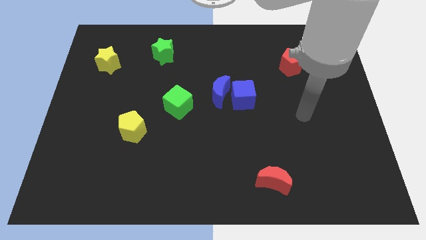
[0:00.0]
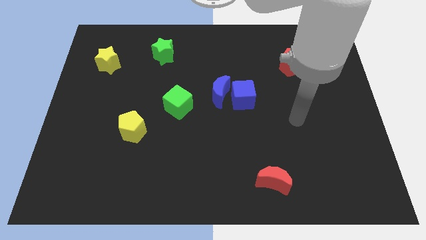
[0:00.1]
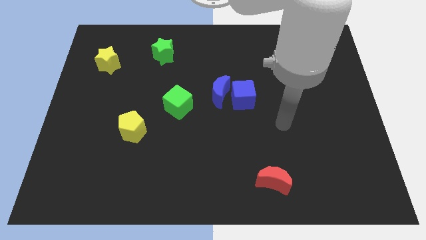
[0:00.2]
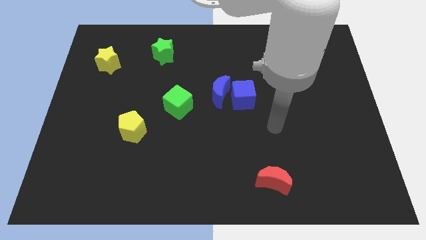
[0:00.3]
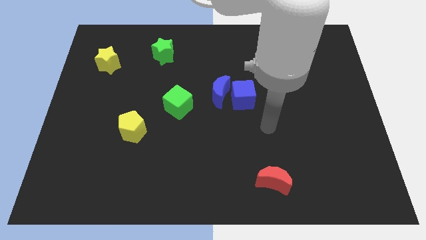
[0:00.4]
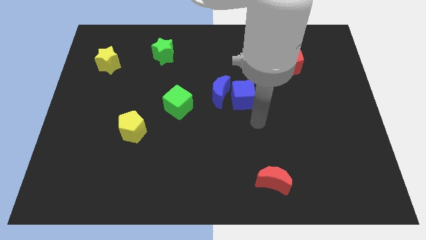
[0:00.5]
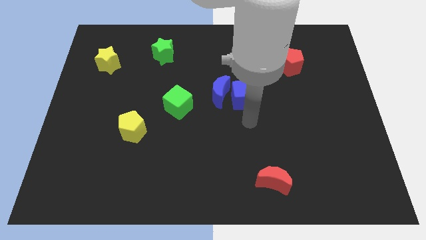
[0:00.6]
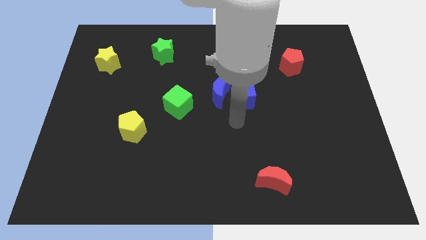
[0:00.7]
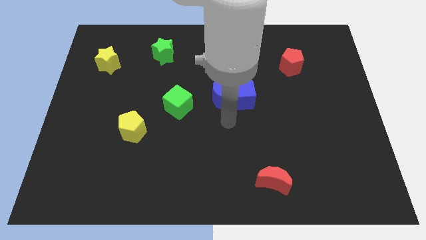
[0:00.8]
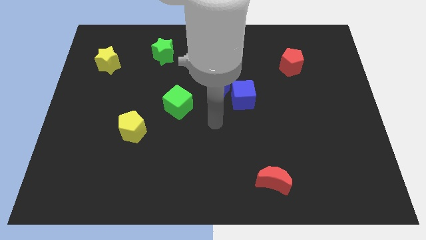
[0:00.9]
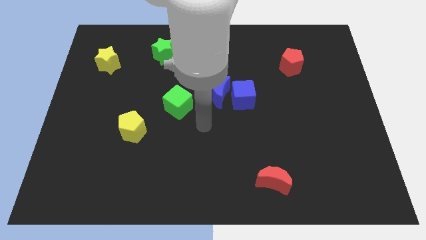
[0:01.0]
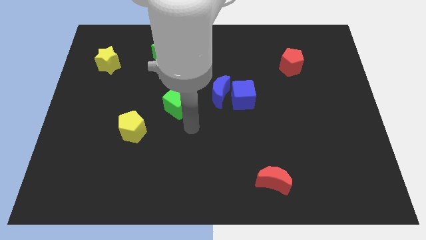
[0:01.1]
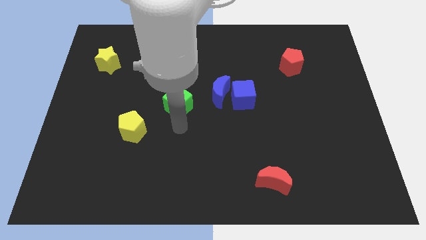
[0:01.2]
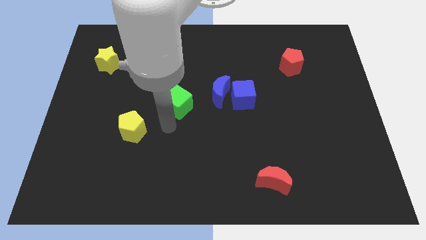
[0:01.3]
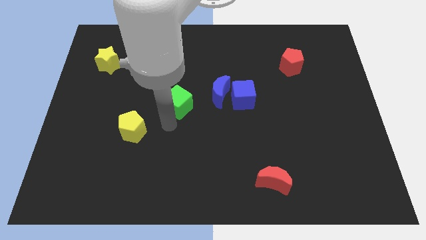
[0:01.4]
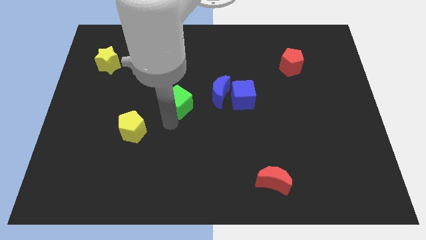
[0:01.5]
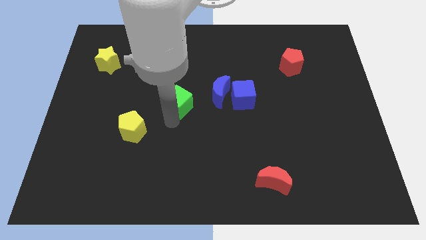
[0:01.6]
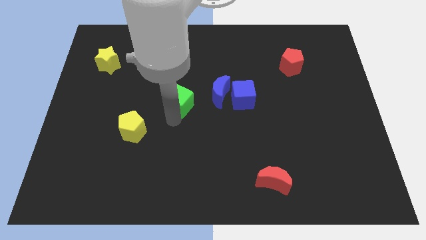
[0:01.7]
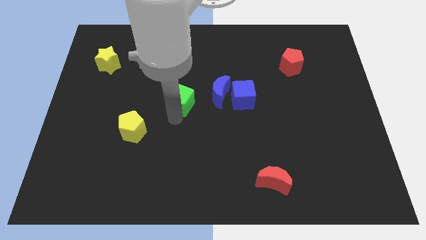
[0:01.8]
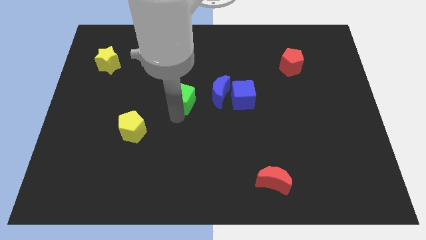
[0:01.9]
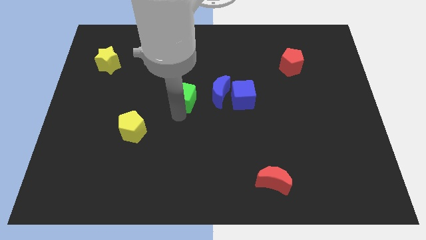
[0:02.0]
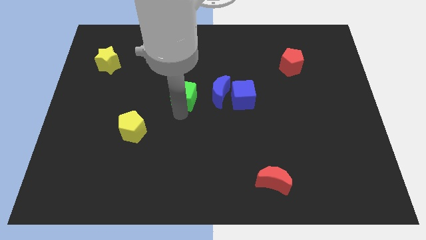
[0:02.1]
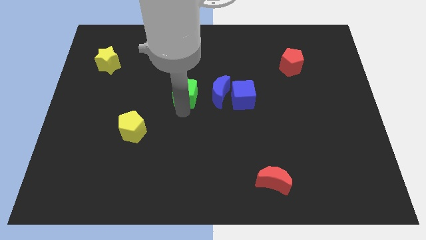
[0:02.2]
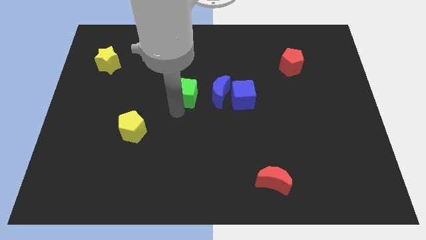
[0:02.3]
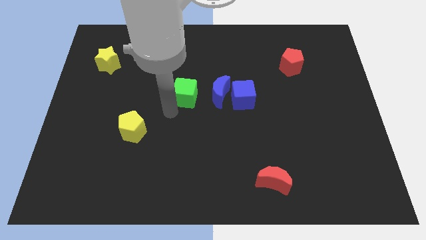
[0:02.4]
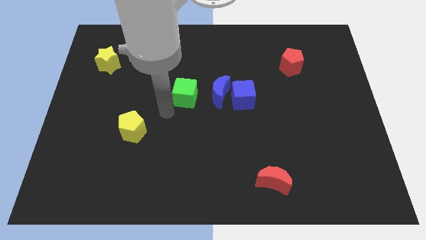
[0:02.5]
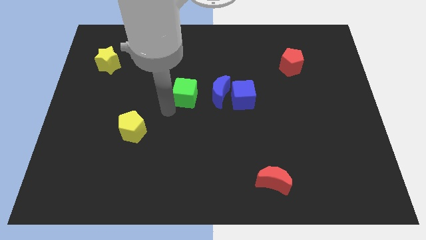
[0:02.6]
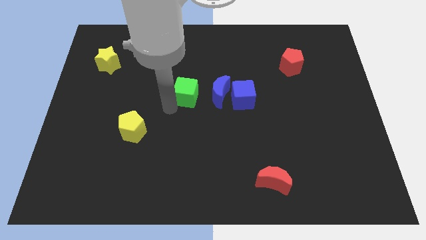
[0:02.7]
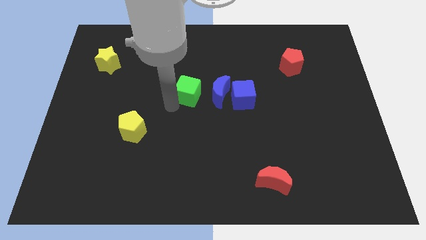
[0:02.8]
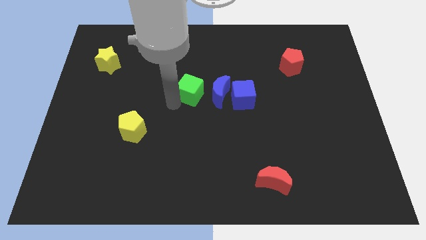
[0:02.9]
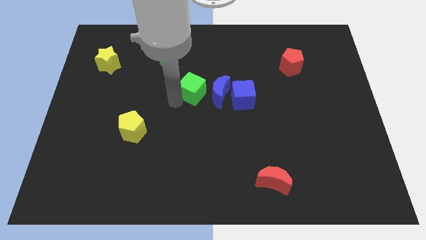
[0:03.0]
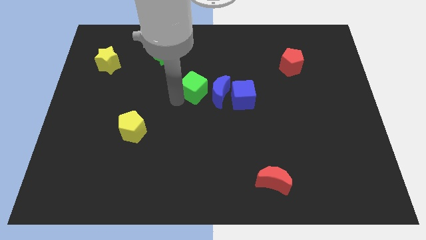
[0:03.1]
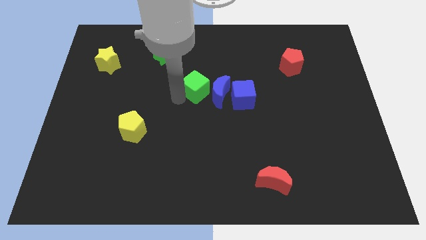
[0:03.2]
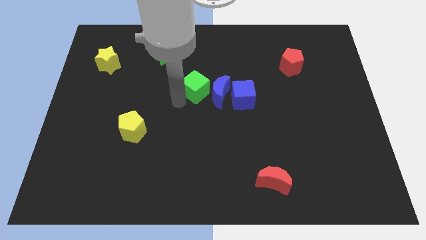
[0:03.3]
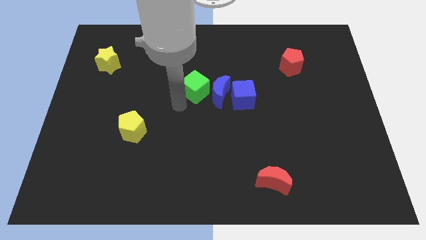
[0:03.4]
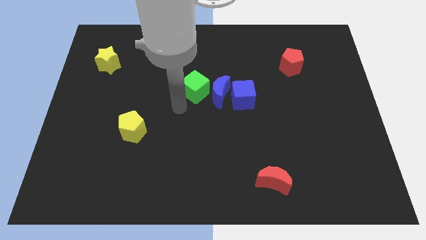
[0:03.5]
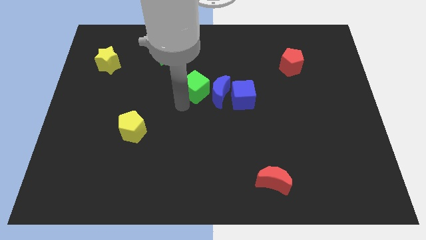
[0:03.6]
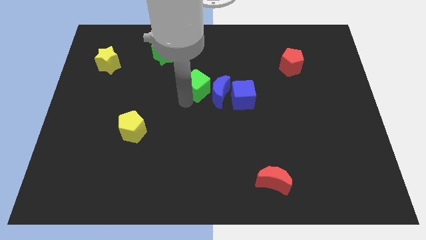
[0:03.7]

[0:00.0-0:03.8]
push the green cube upwards and then right a little

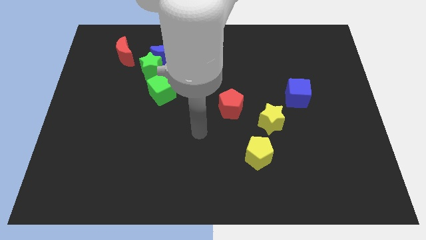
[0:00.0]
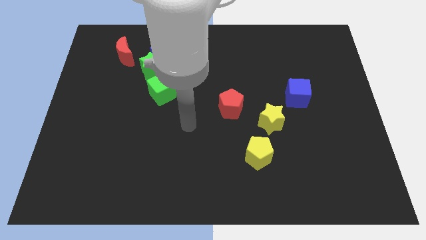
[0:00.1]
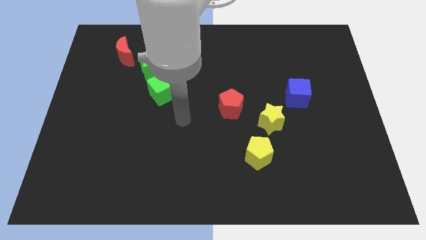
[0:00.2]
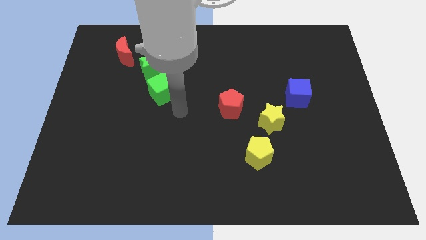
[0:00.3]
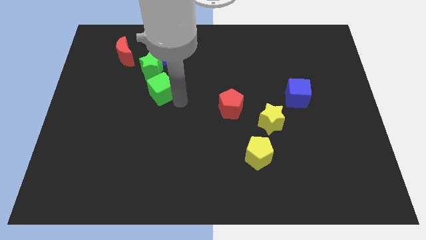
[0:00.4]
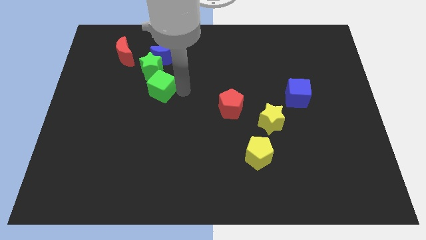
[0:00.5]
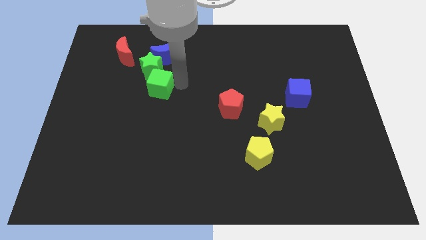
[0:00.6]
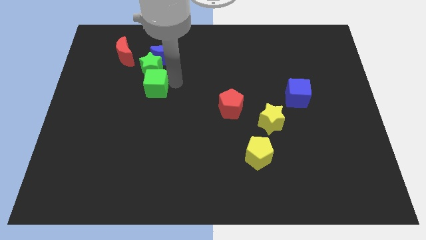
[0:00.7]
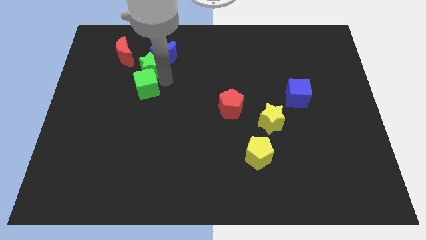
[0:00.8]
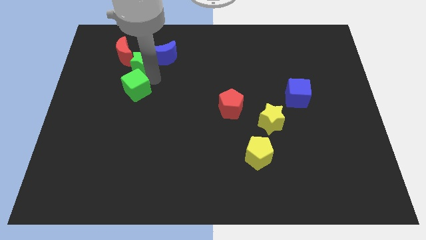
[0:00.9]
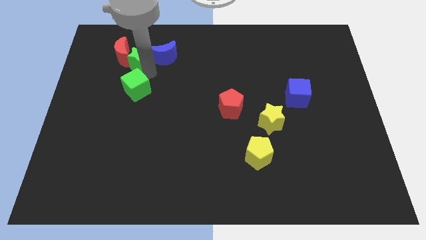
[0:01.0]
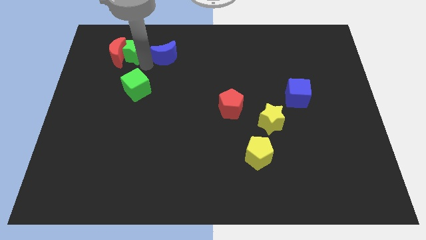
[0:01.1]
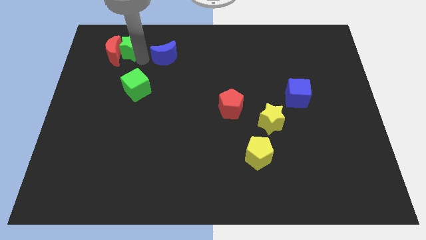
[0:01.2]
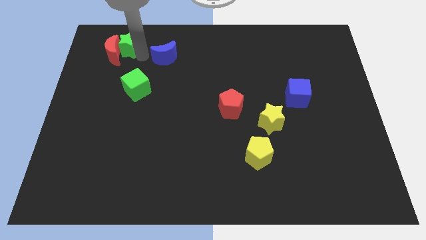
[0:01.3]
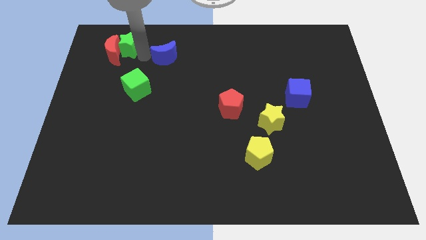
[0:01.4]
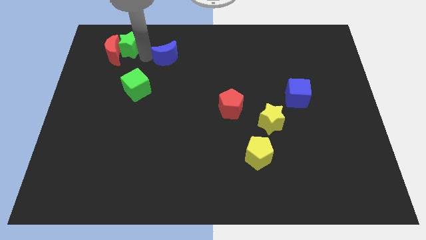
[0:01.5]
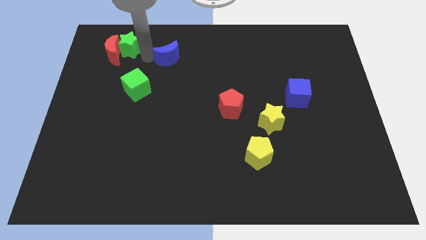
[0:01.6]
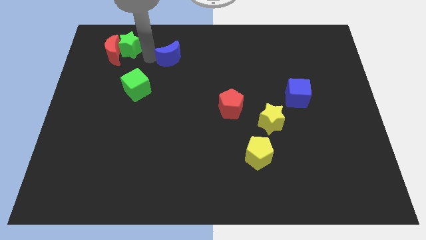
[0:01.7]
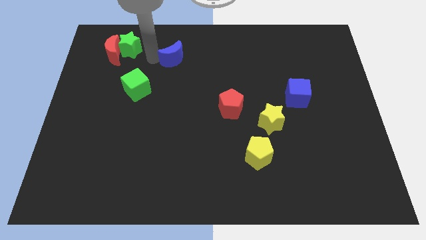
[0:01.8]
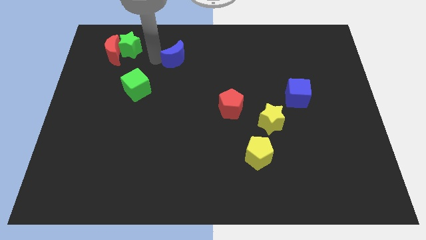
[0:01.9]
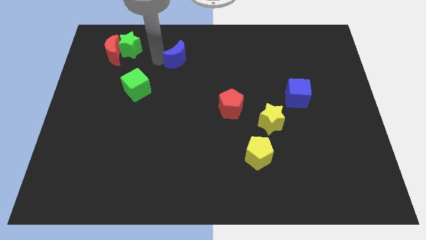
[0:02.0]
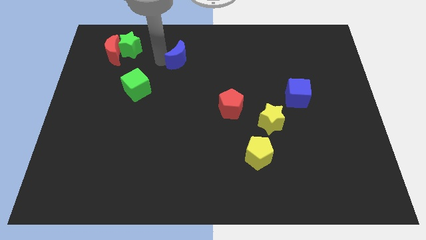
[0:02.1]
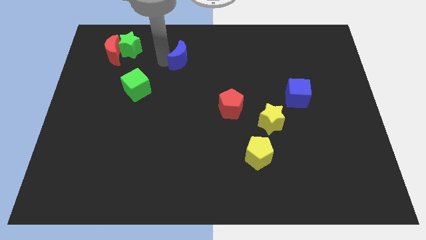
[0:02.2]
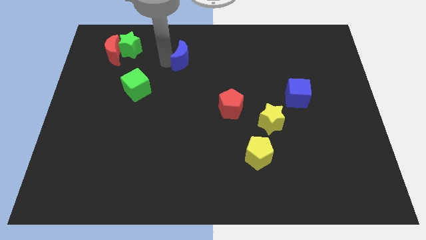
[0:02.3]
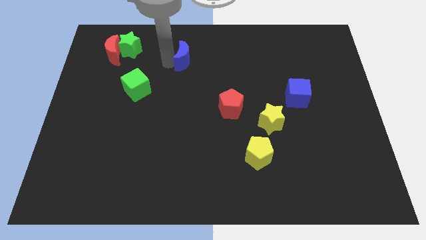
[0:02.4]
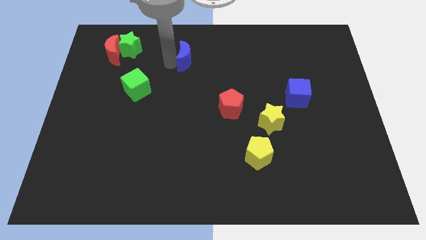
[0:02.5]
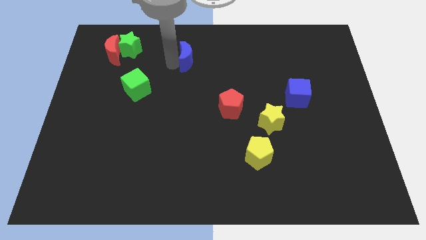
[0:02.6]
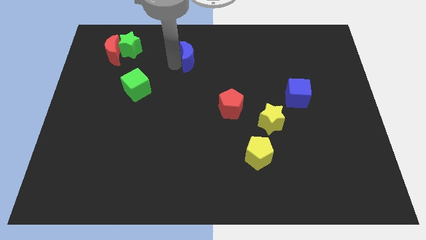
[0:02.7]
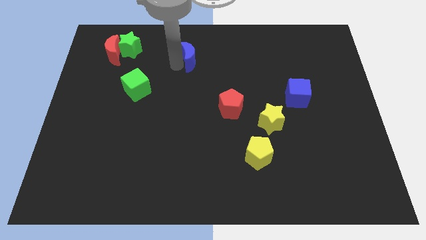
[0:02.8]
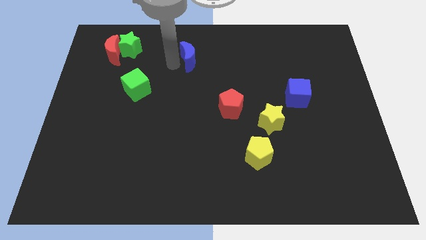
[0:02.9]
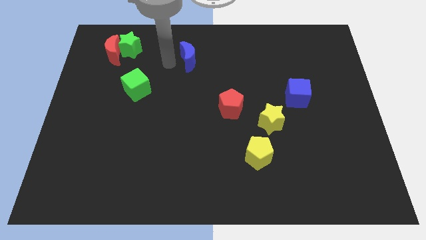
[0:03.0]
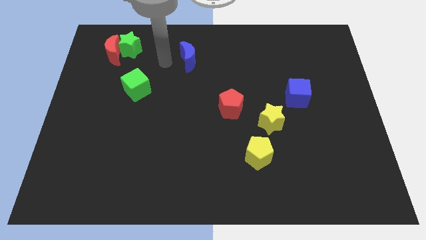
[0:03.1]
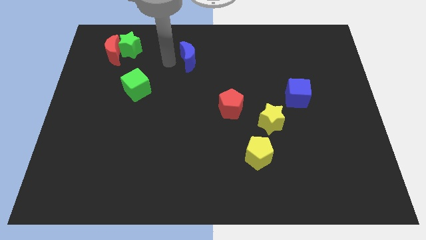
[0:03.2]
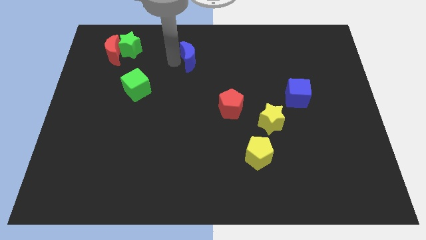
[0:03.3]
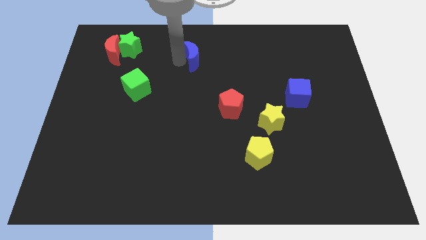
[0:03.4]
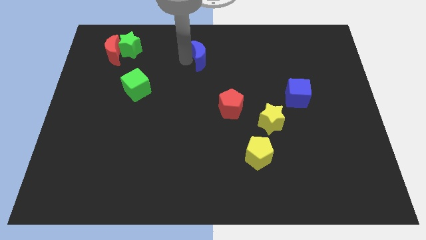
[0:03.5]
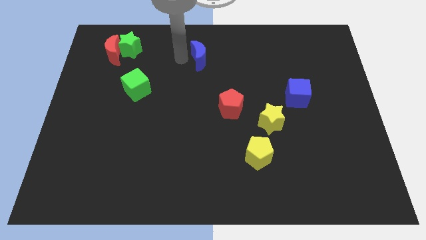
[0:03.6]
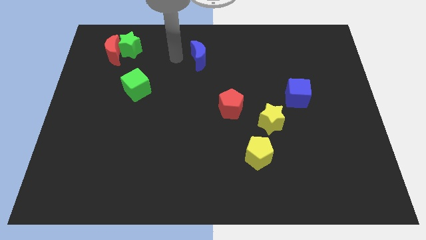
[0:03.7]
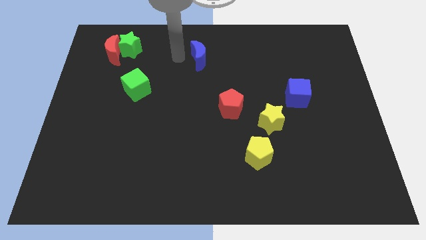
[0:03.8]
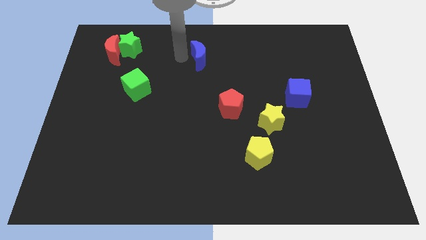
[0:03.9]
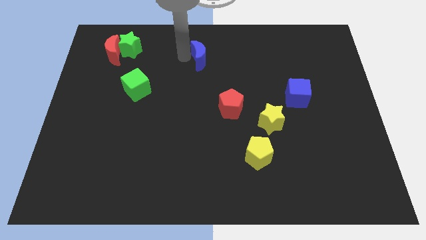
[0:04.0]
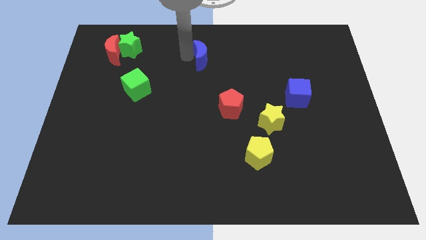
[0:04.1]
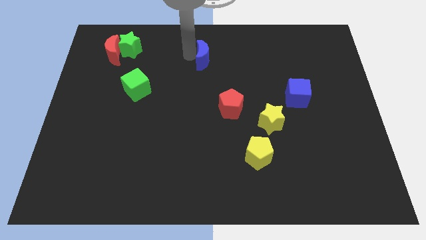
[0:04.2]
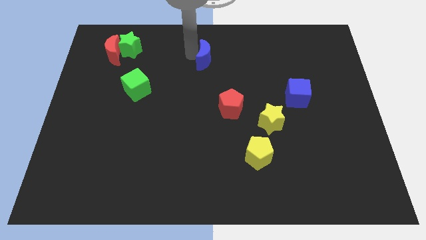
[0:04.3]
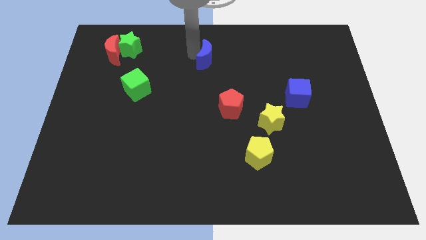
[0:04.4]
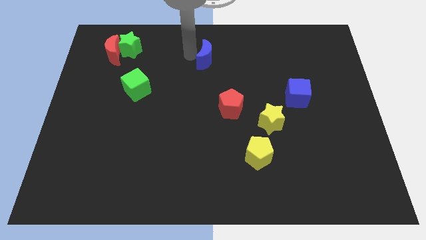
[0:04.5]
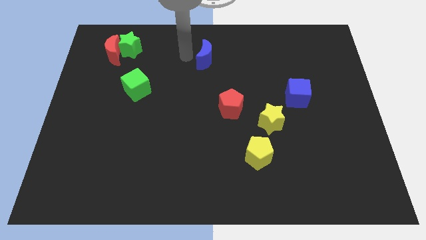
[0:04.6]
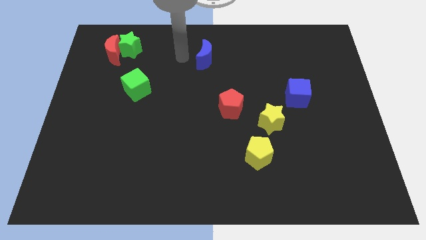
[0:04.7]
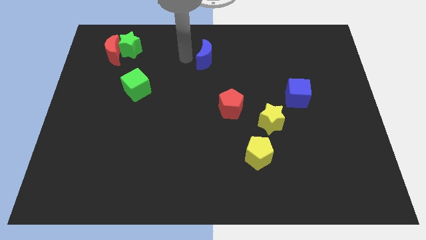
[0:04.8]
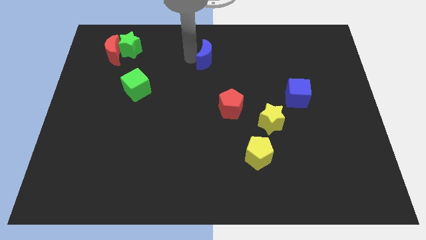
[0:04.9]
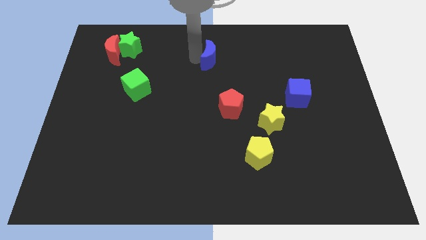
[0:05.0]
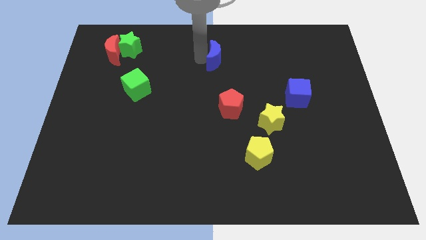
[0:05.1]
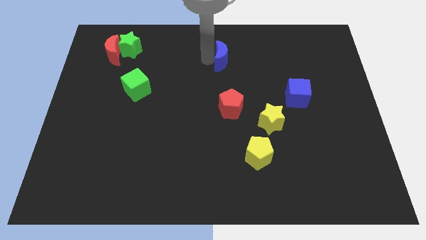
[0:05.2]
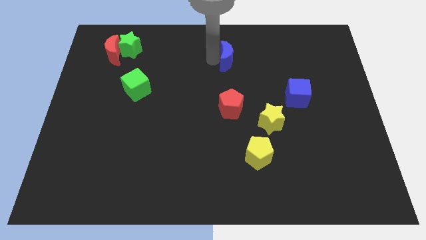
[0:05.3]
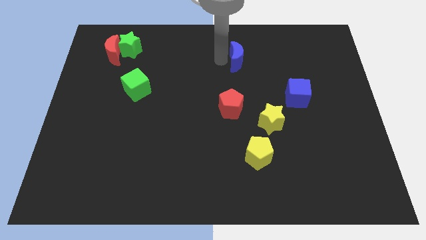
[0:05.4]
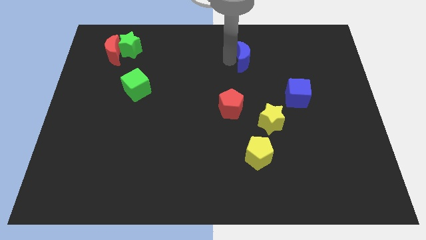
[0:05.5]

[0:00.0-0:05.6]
move the blue moon right
